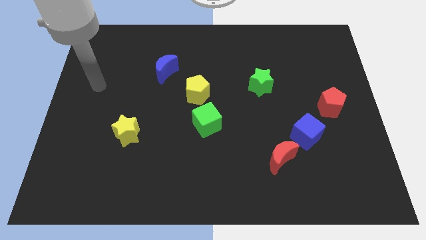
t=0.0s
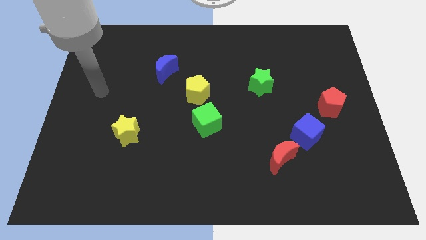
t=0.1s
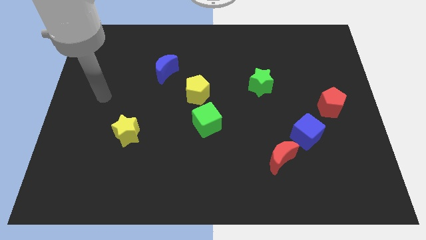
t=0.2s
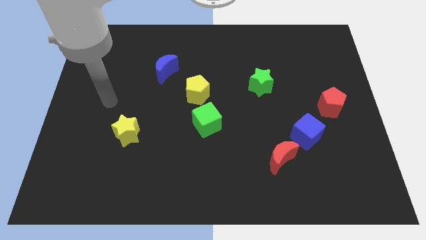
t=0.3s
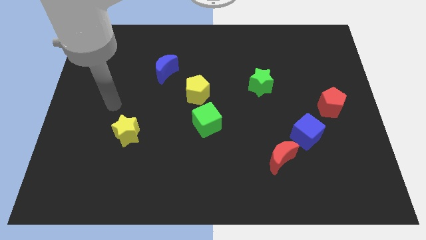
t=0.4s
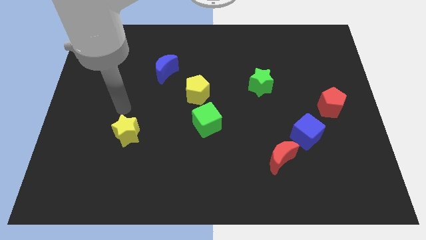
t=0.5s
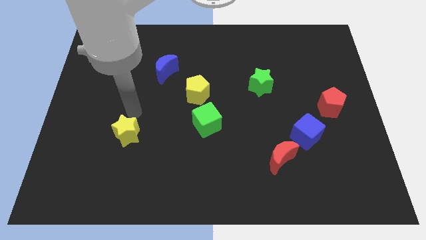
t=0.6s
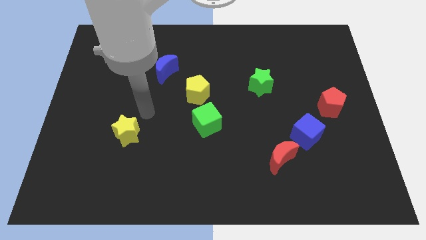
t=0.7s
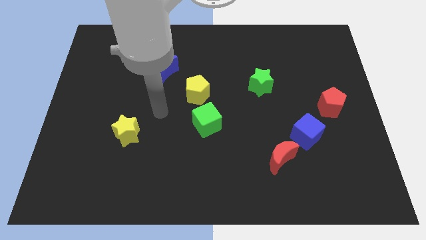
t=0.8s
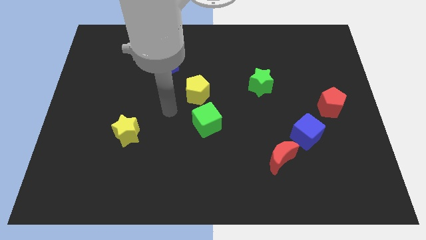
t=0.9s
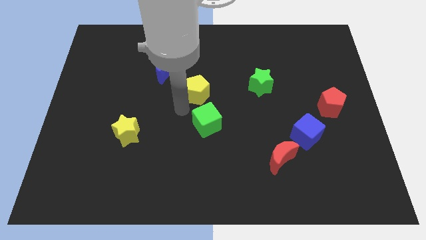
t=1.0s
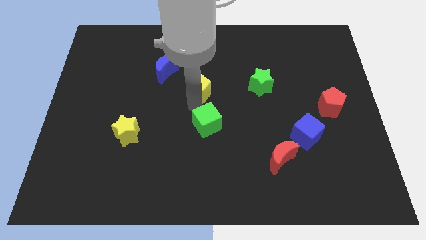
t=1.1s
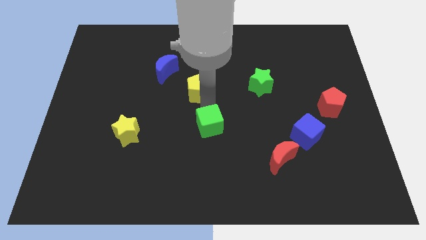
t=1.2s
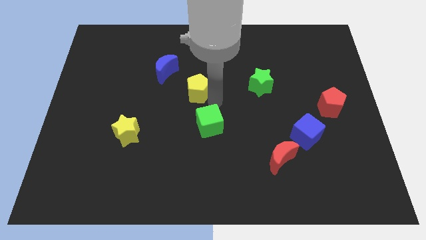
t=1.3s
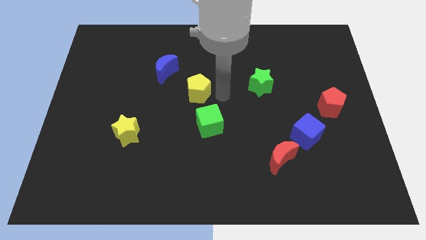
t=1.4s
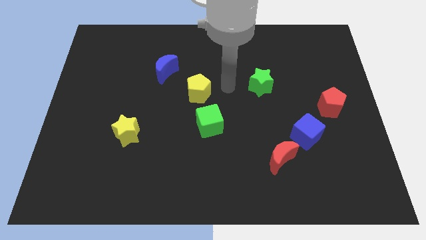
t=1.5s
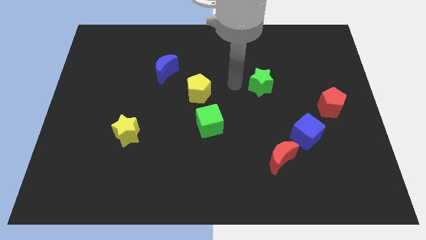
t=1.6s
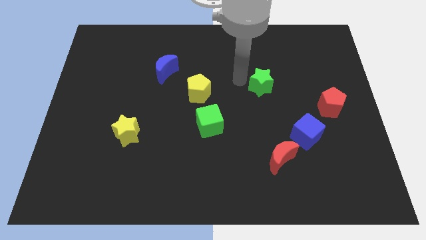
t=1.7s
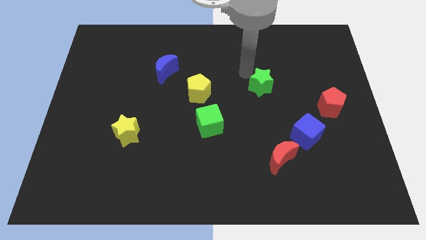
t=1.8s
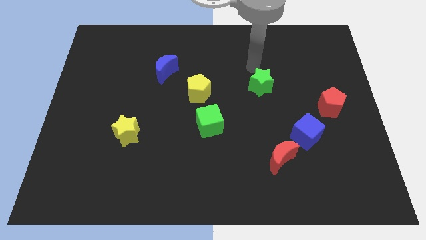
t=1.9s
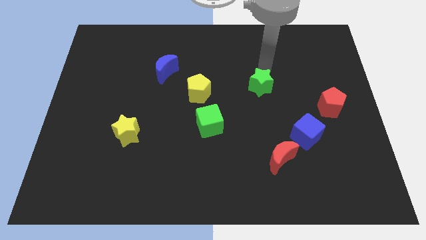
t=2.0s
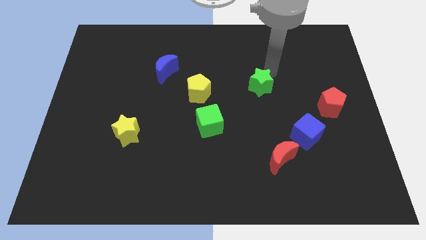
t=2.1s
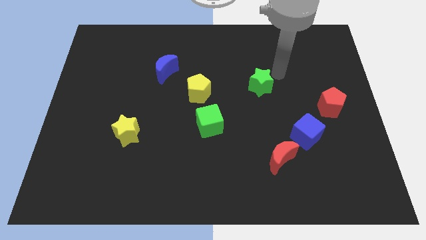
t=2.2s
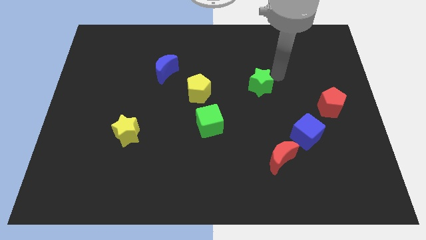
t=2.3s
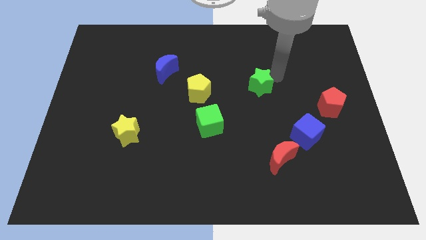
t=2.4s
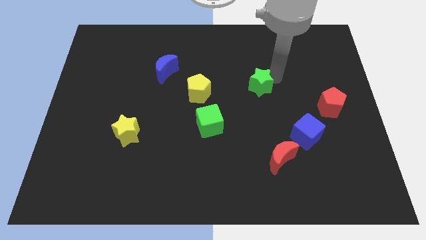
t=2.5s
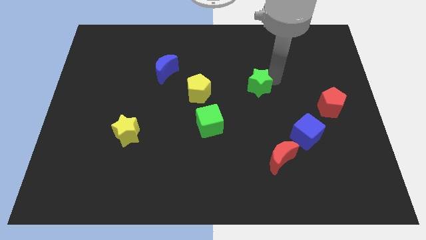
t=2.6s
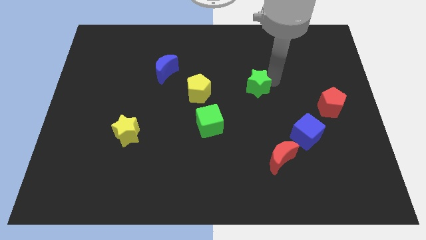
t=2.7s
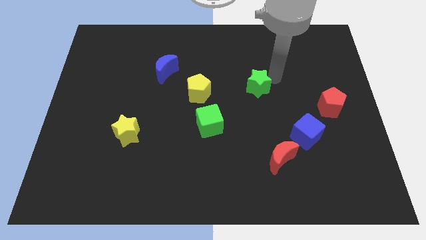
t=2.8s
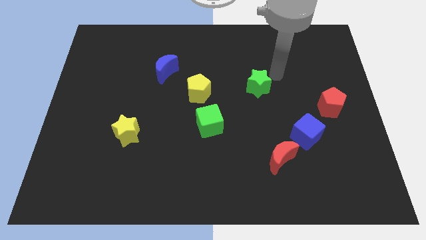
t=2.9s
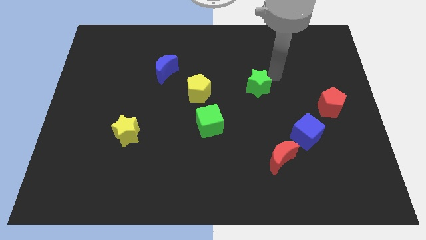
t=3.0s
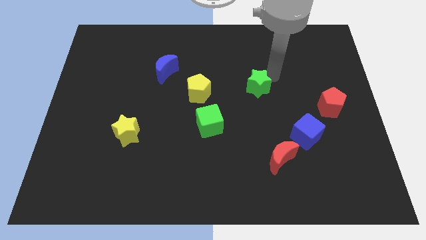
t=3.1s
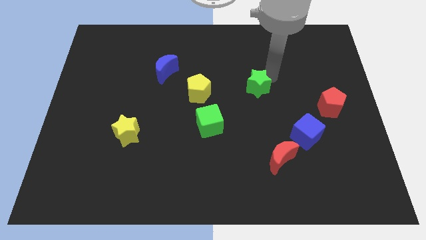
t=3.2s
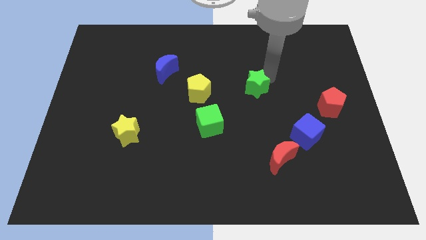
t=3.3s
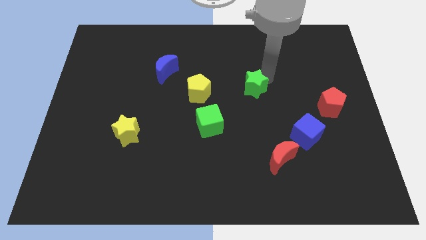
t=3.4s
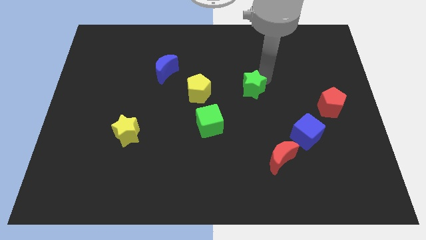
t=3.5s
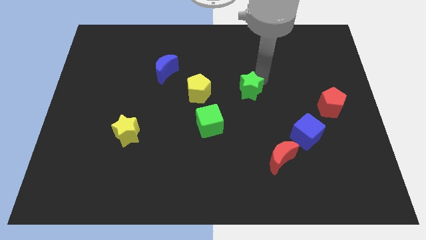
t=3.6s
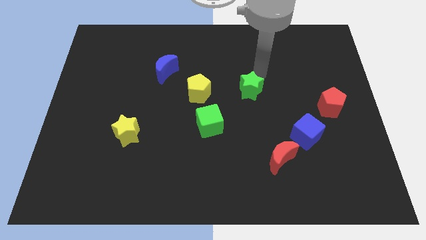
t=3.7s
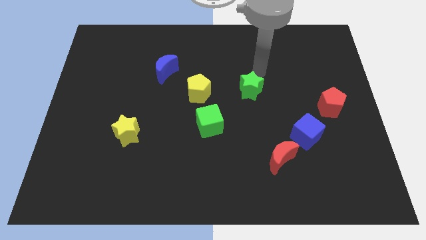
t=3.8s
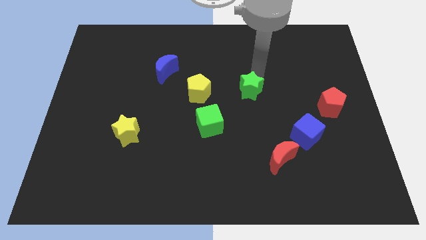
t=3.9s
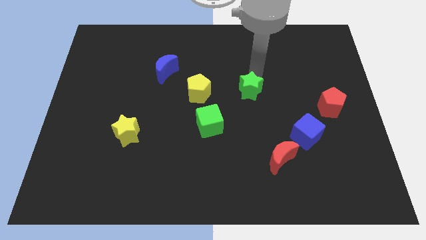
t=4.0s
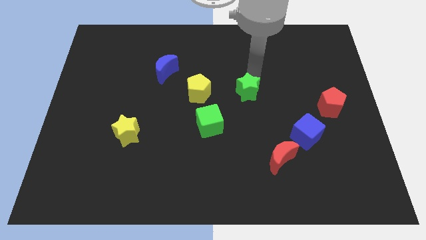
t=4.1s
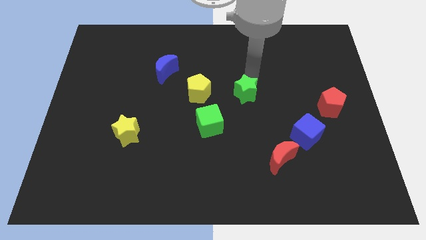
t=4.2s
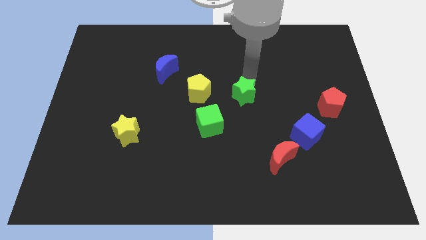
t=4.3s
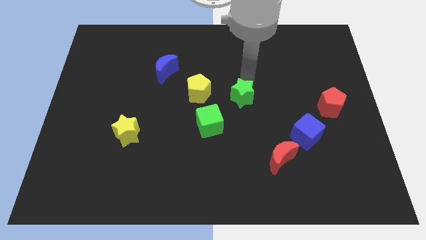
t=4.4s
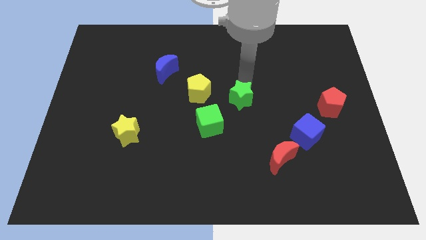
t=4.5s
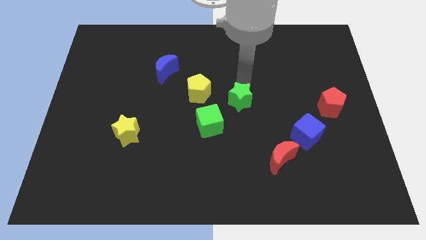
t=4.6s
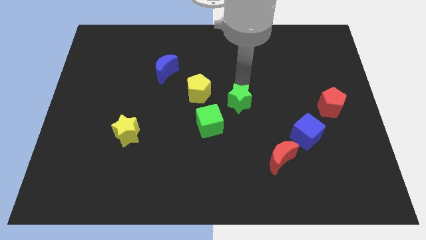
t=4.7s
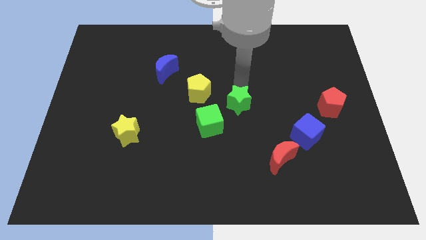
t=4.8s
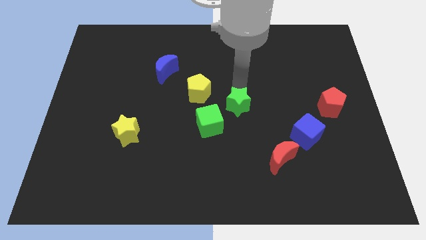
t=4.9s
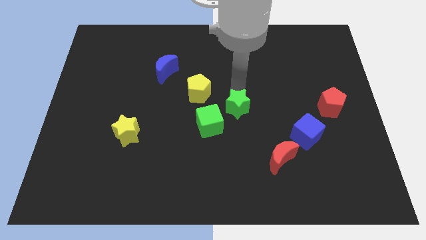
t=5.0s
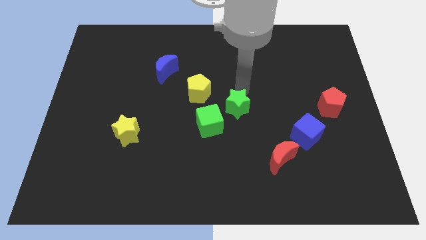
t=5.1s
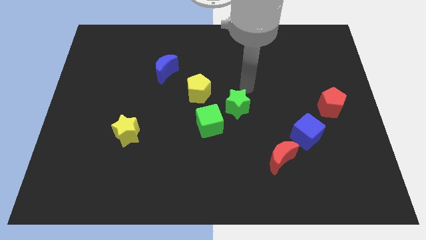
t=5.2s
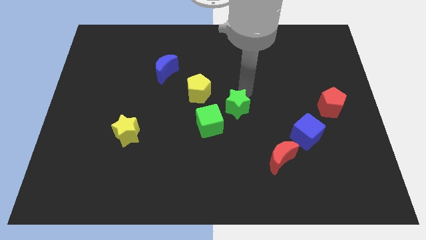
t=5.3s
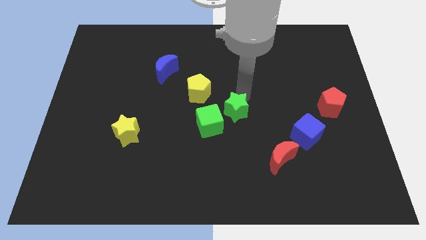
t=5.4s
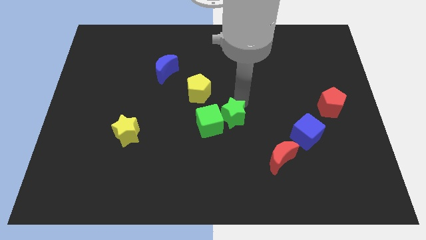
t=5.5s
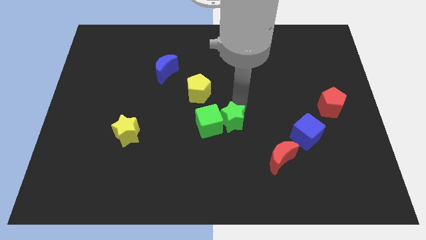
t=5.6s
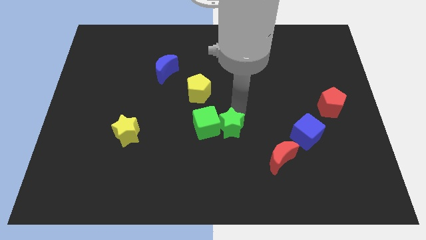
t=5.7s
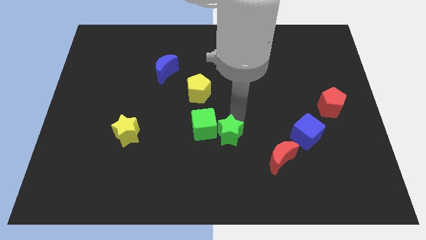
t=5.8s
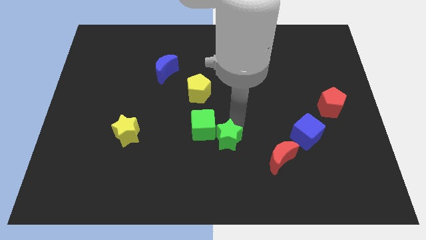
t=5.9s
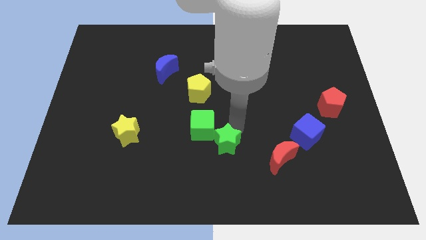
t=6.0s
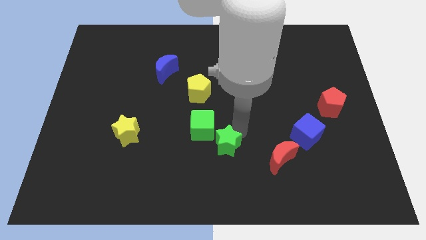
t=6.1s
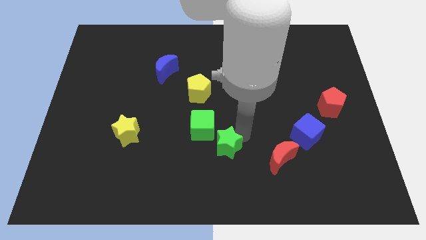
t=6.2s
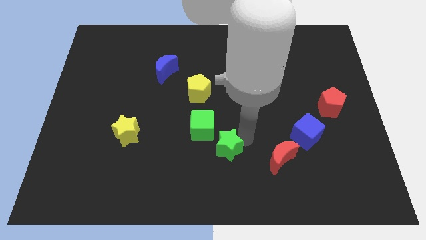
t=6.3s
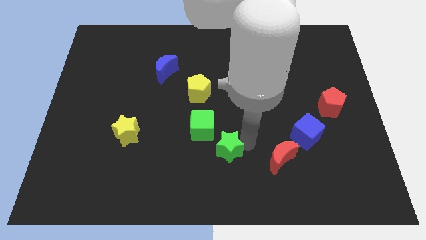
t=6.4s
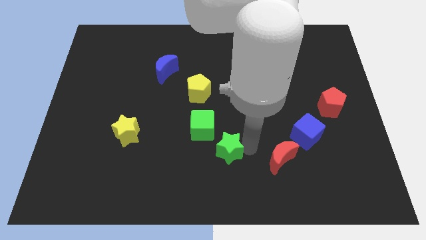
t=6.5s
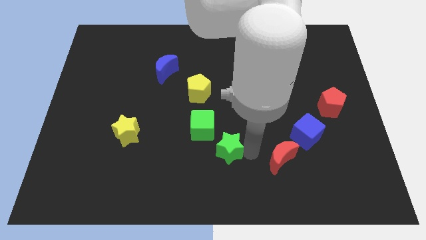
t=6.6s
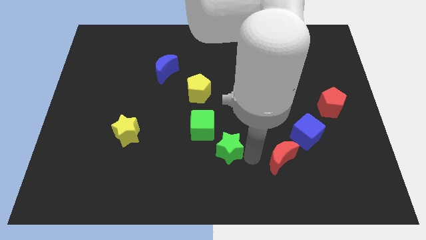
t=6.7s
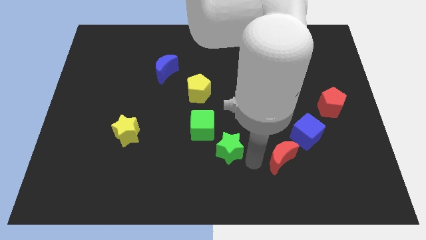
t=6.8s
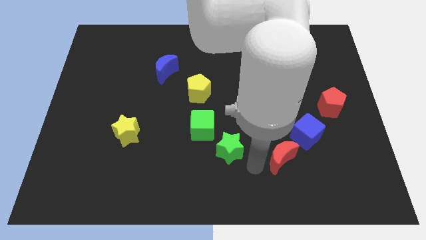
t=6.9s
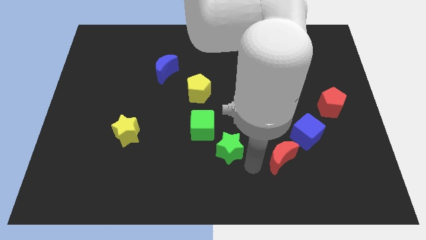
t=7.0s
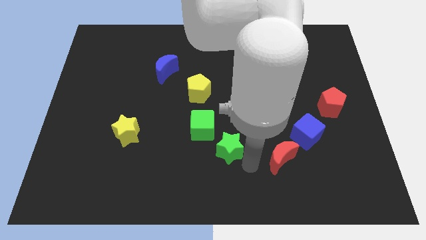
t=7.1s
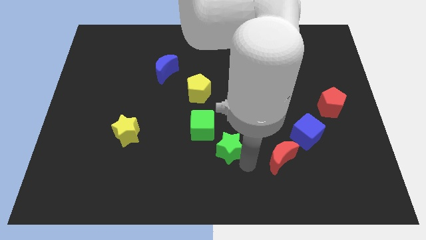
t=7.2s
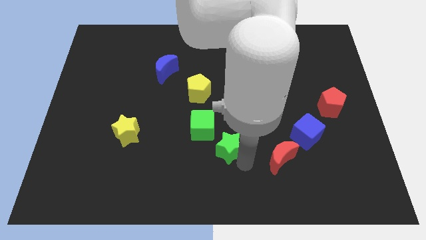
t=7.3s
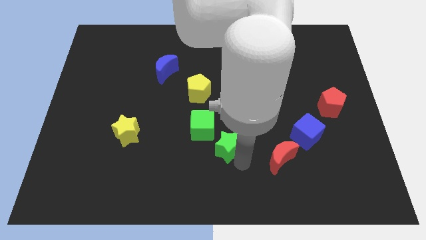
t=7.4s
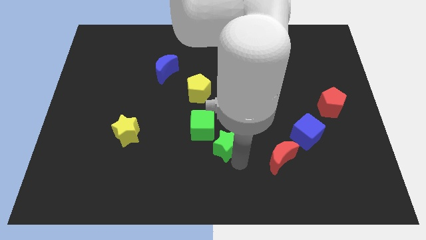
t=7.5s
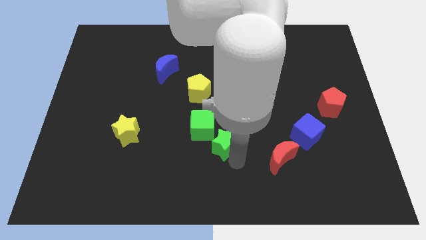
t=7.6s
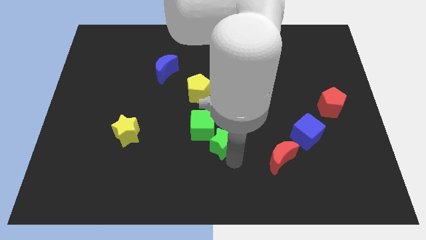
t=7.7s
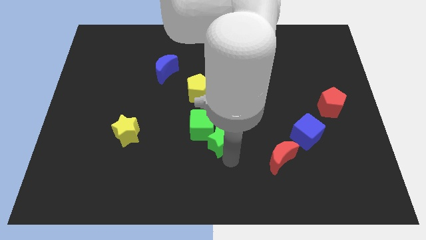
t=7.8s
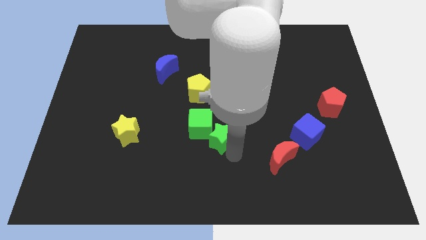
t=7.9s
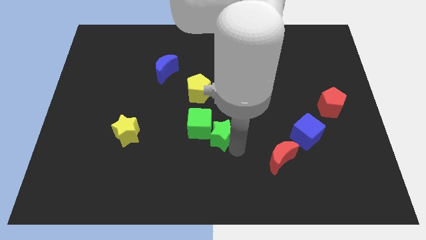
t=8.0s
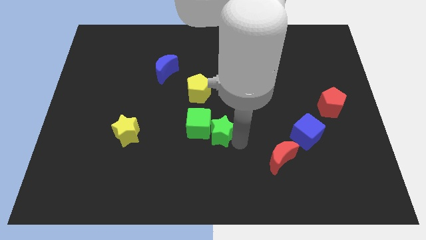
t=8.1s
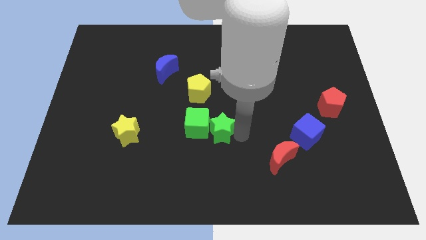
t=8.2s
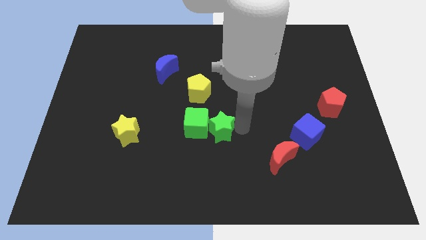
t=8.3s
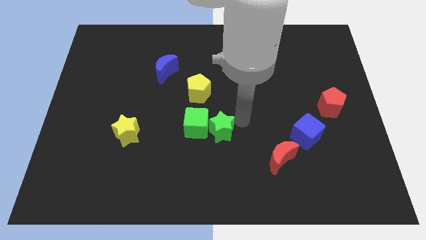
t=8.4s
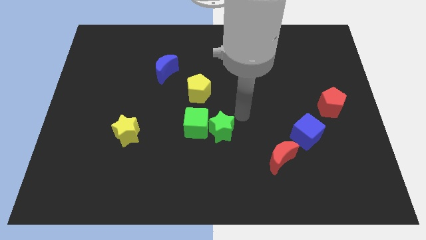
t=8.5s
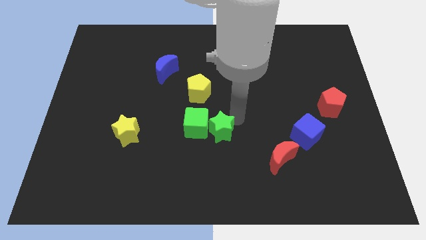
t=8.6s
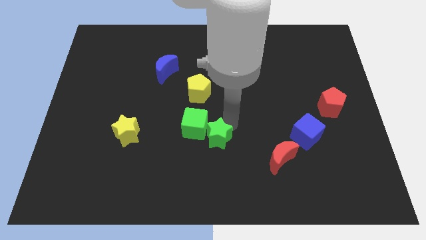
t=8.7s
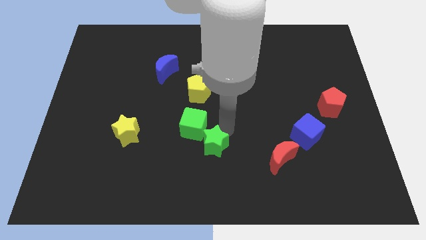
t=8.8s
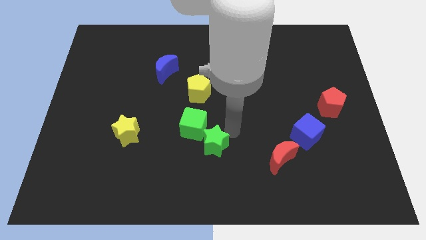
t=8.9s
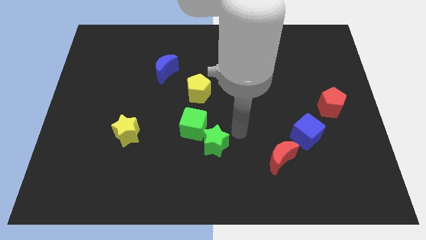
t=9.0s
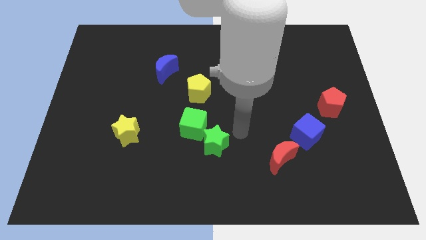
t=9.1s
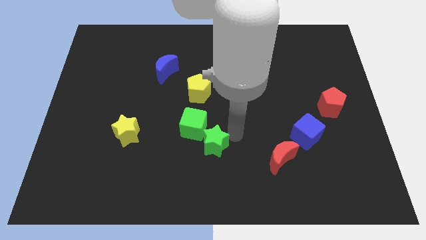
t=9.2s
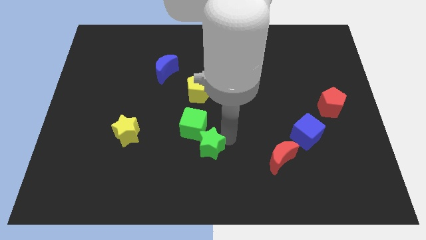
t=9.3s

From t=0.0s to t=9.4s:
slide the green star downwards and left
